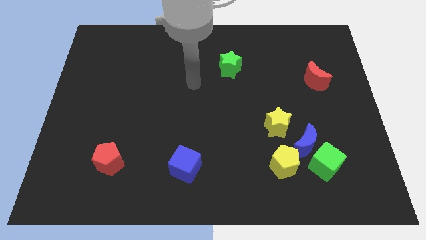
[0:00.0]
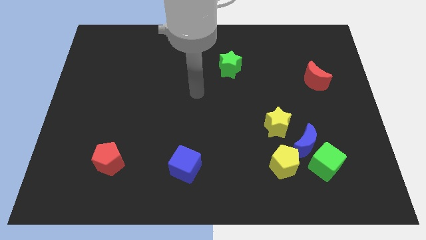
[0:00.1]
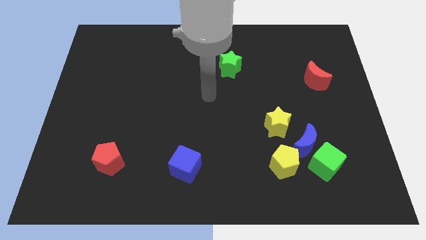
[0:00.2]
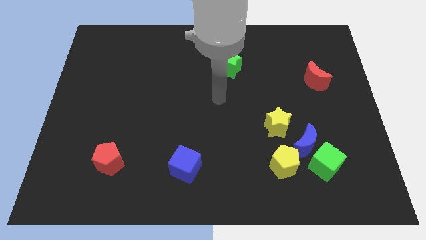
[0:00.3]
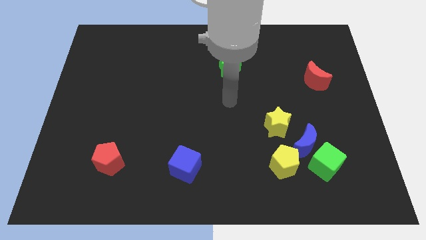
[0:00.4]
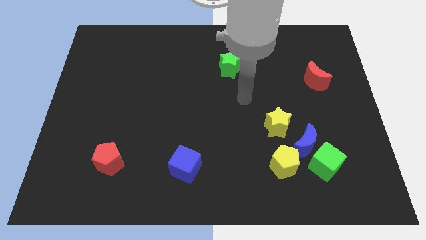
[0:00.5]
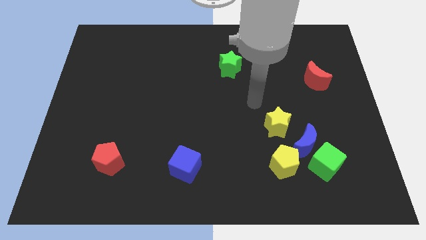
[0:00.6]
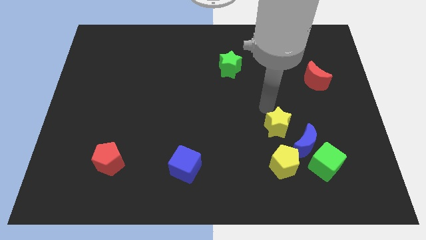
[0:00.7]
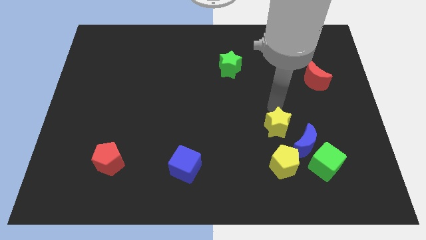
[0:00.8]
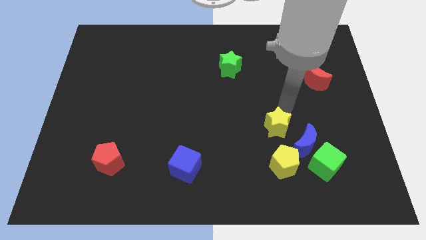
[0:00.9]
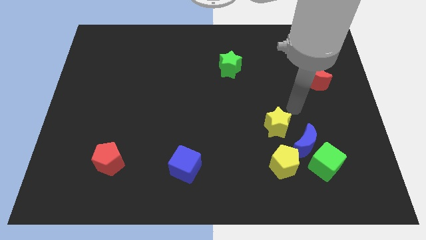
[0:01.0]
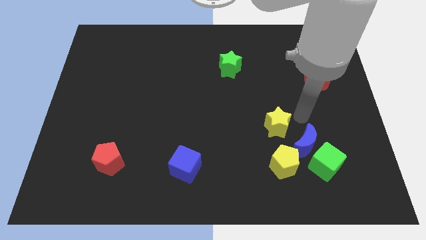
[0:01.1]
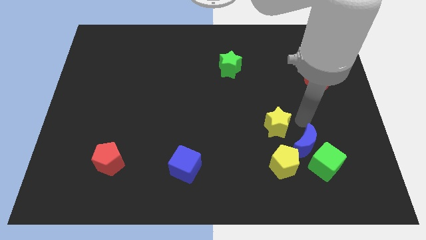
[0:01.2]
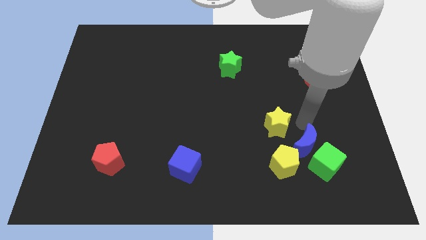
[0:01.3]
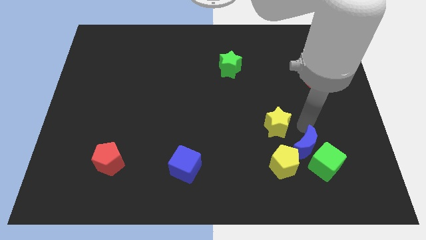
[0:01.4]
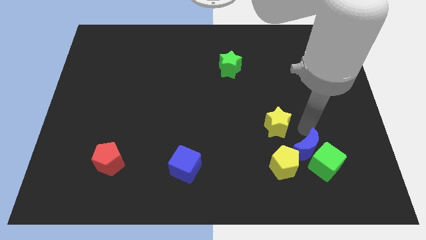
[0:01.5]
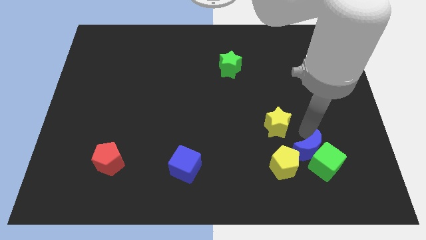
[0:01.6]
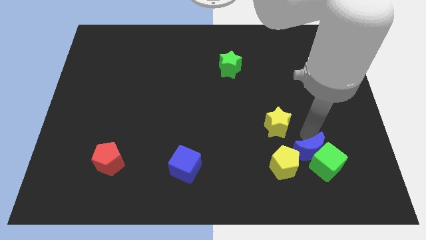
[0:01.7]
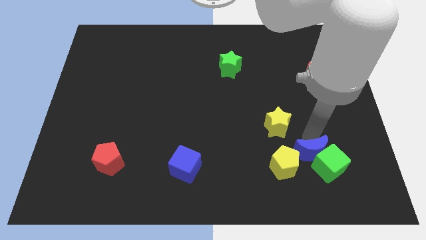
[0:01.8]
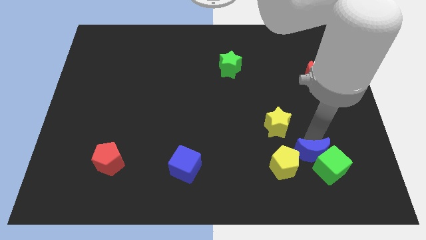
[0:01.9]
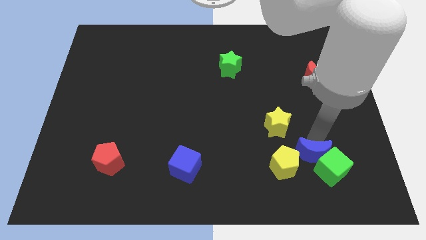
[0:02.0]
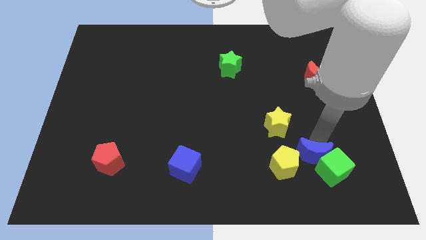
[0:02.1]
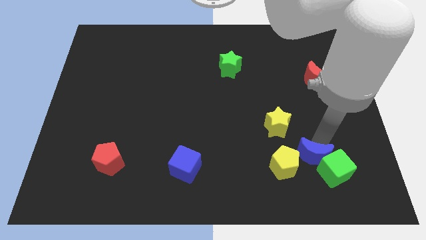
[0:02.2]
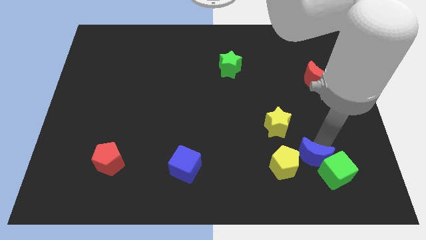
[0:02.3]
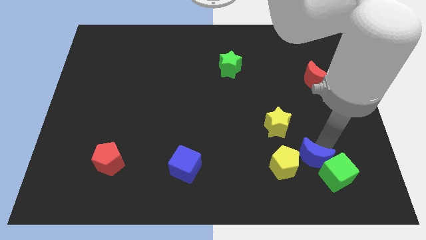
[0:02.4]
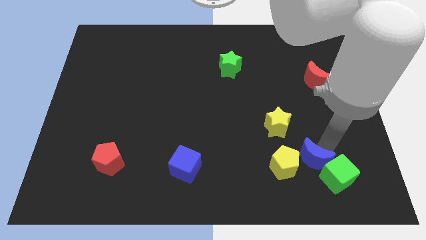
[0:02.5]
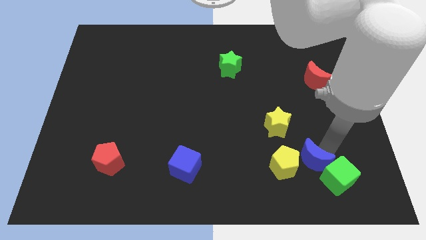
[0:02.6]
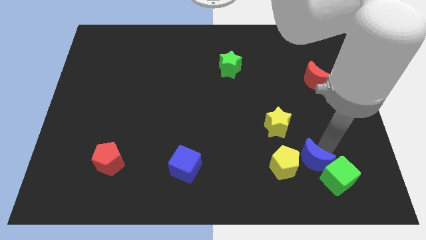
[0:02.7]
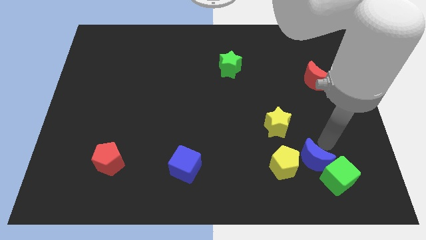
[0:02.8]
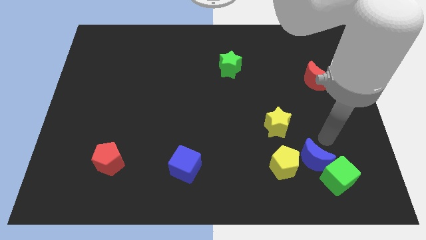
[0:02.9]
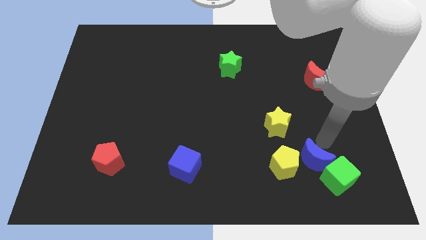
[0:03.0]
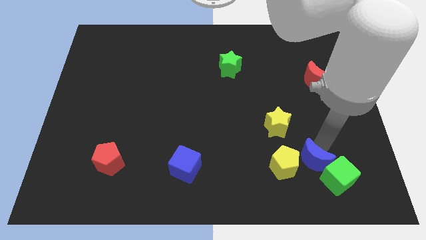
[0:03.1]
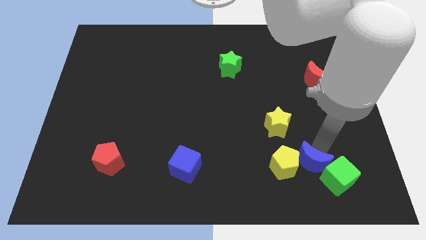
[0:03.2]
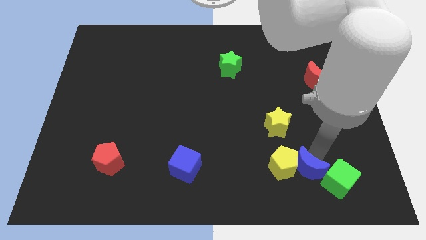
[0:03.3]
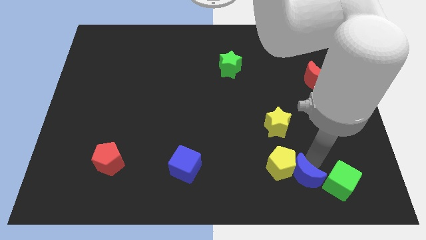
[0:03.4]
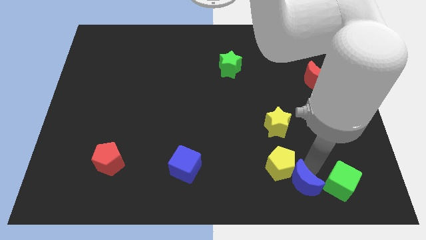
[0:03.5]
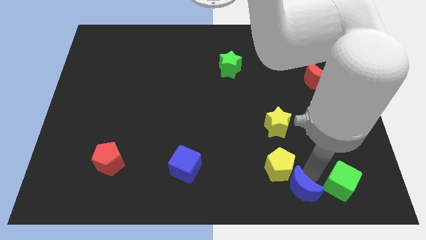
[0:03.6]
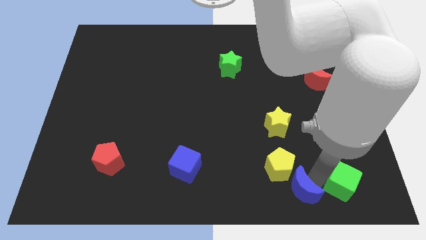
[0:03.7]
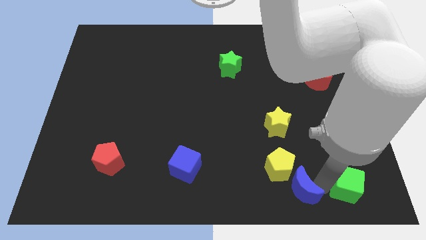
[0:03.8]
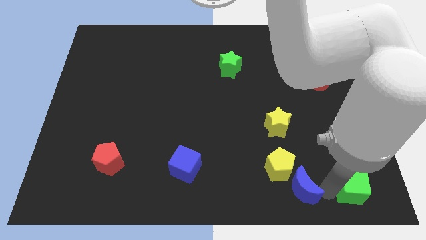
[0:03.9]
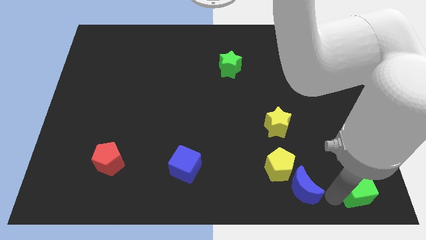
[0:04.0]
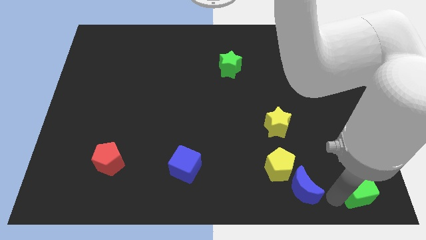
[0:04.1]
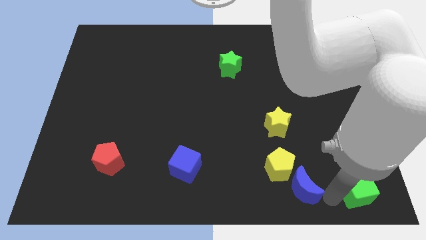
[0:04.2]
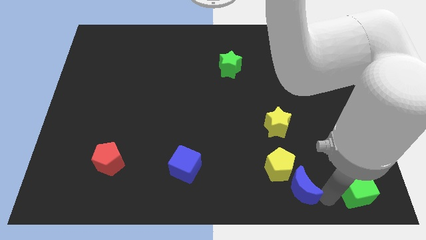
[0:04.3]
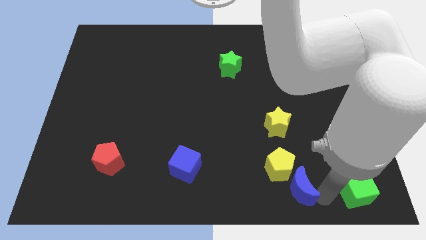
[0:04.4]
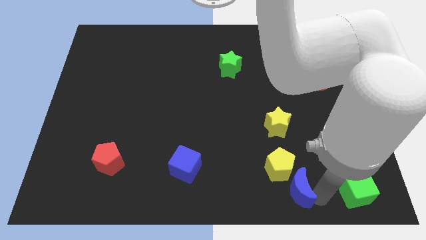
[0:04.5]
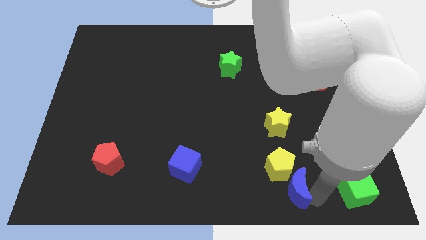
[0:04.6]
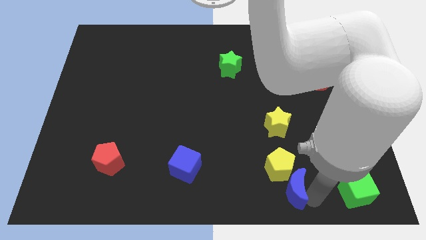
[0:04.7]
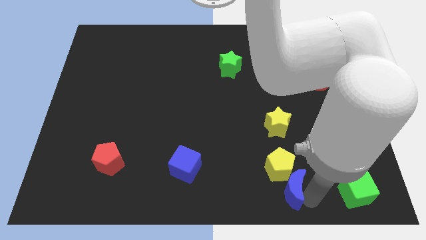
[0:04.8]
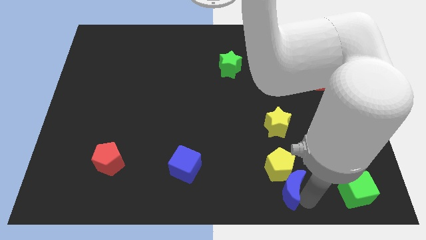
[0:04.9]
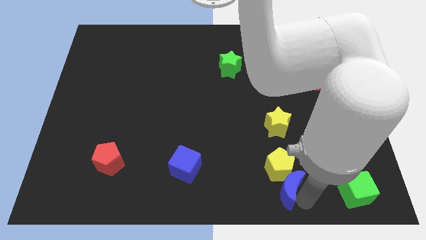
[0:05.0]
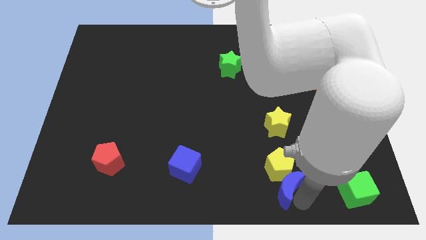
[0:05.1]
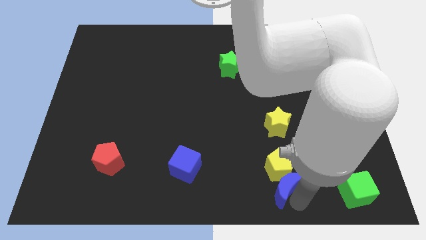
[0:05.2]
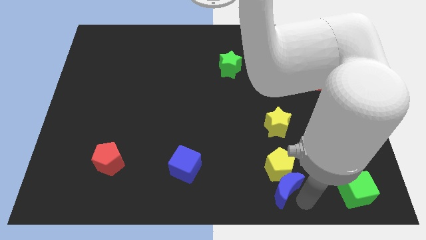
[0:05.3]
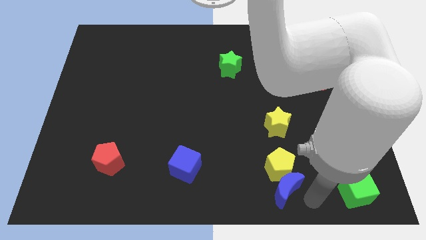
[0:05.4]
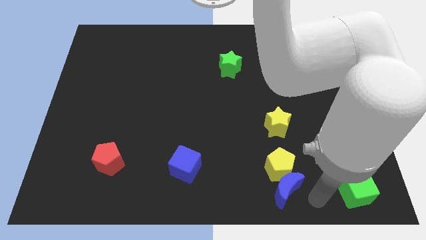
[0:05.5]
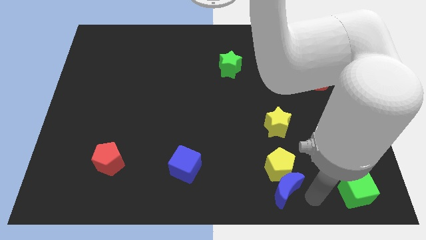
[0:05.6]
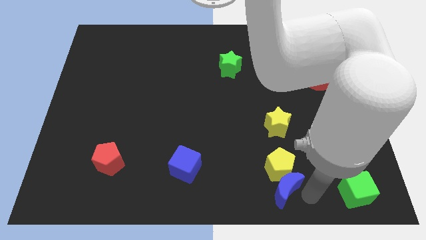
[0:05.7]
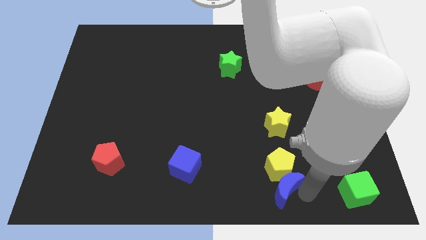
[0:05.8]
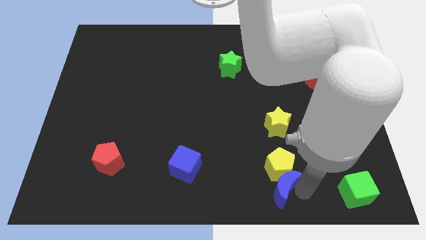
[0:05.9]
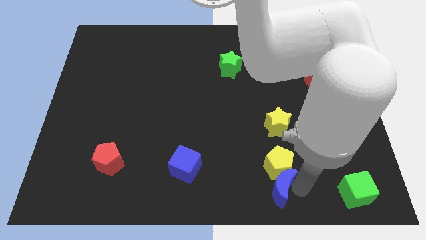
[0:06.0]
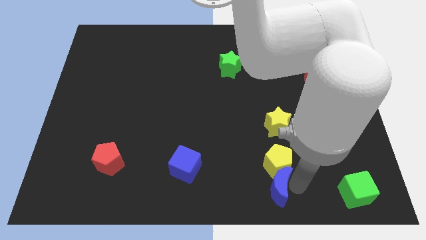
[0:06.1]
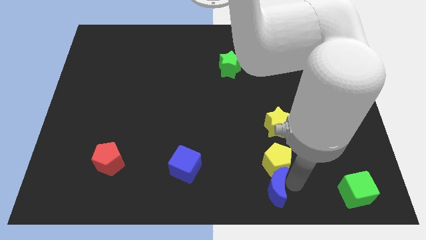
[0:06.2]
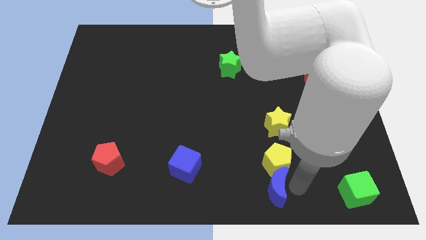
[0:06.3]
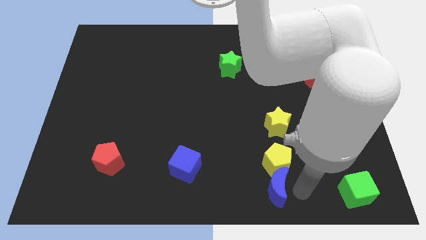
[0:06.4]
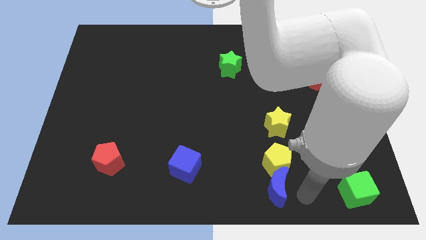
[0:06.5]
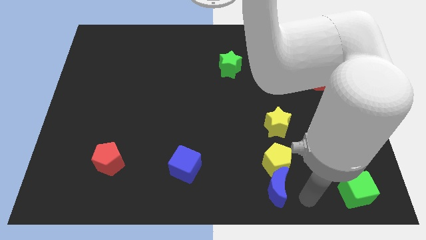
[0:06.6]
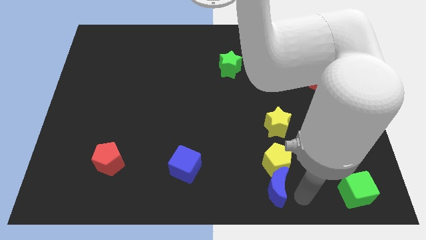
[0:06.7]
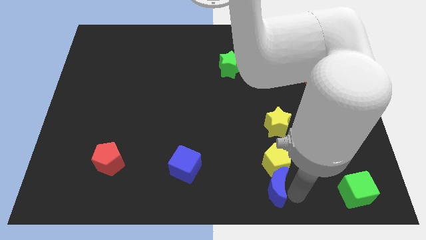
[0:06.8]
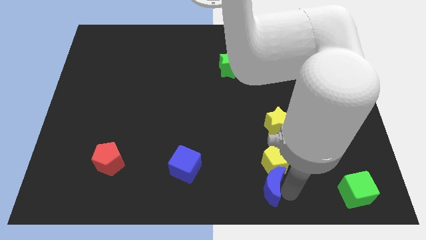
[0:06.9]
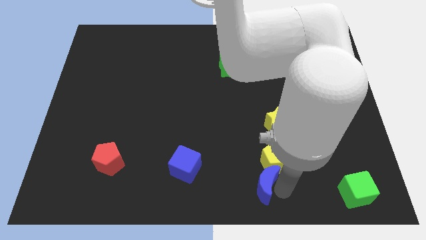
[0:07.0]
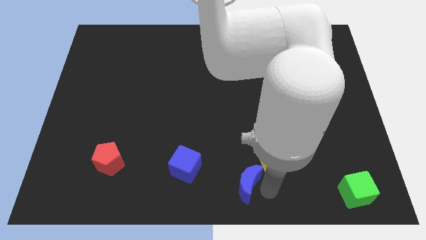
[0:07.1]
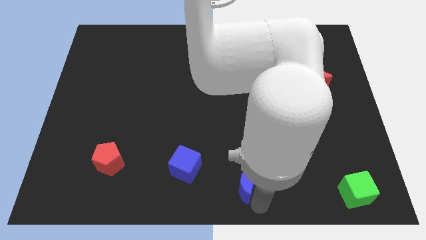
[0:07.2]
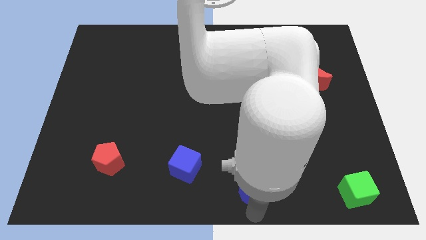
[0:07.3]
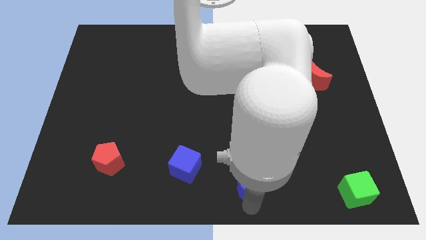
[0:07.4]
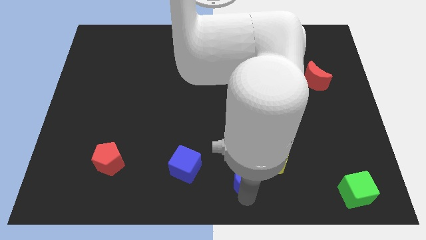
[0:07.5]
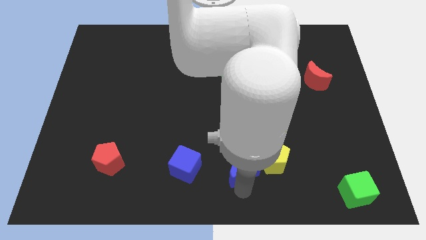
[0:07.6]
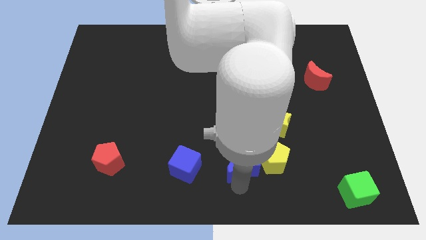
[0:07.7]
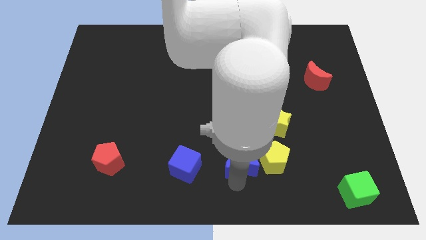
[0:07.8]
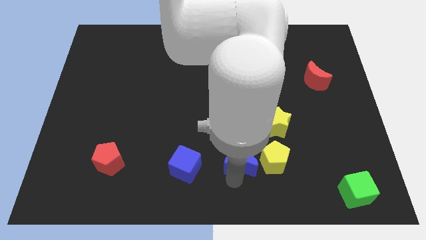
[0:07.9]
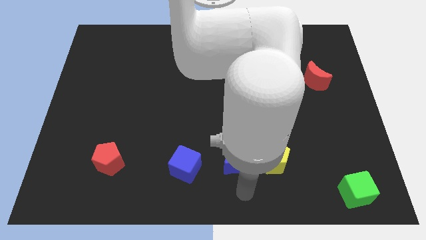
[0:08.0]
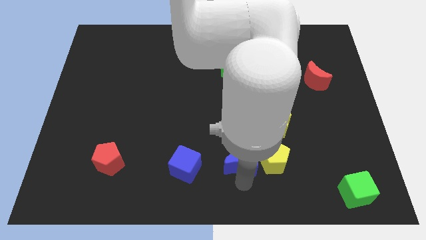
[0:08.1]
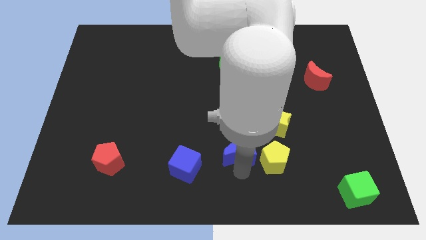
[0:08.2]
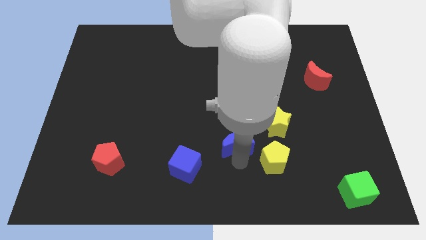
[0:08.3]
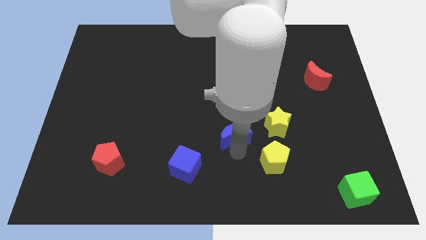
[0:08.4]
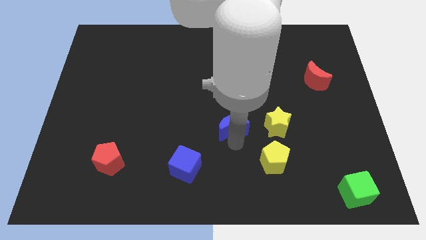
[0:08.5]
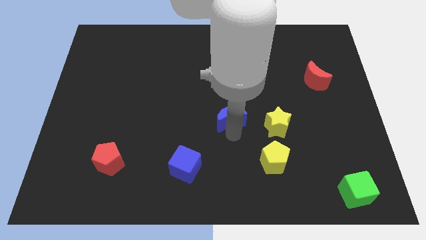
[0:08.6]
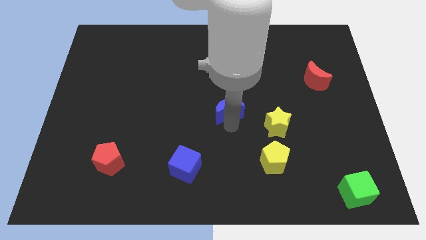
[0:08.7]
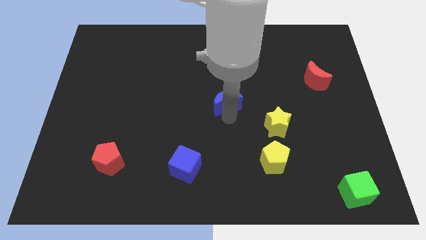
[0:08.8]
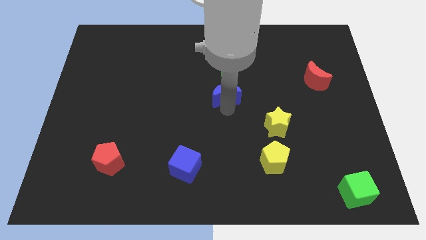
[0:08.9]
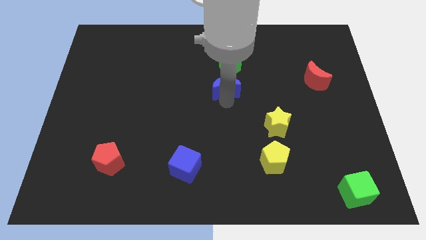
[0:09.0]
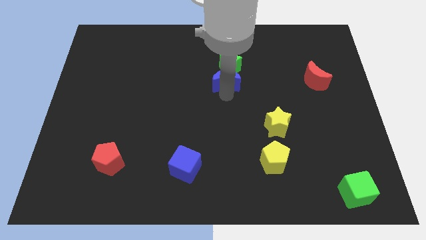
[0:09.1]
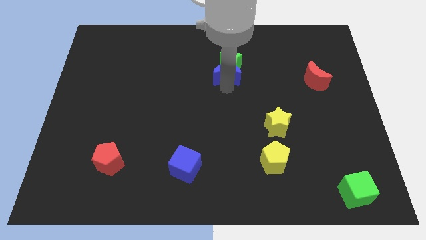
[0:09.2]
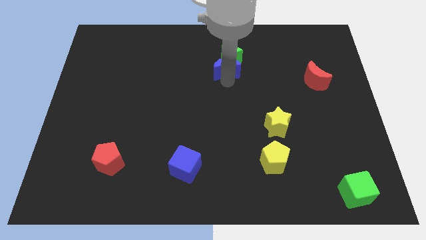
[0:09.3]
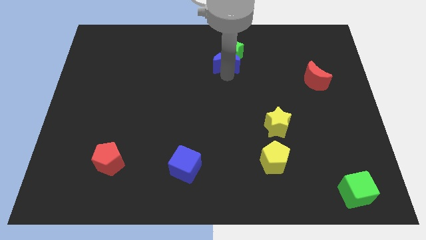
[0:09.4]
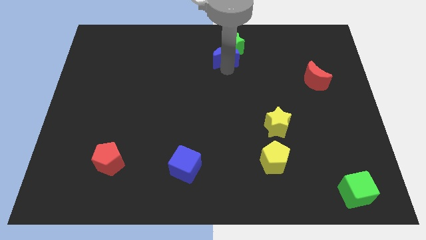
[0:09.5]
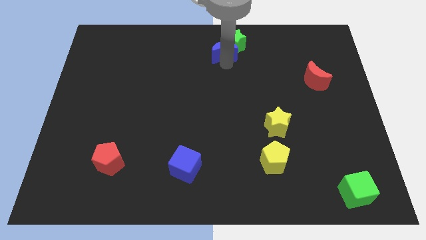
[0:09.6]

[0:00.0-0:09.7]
put the blue moon to the towards your base
